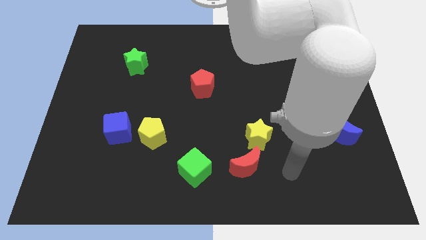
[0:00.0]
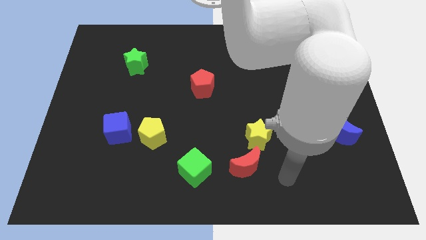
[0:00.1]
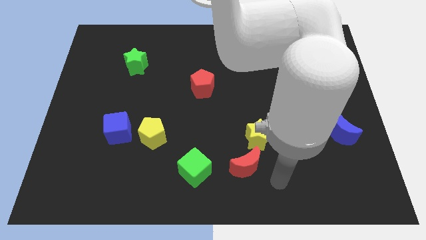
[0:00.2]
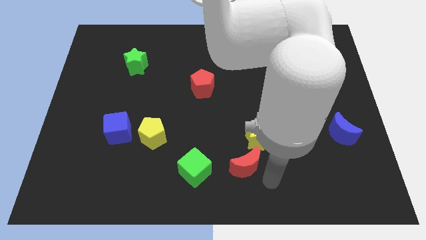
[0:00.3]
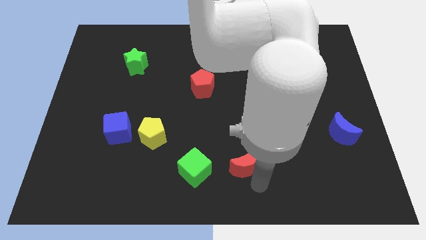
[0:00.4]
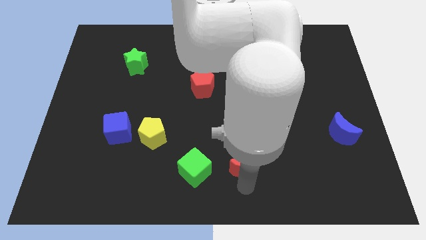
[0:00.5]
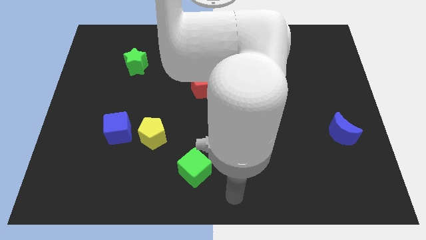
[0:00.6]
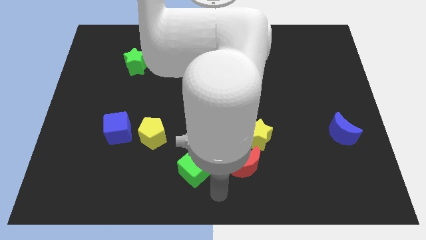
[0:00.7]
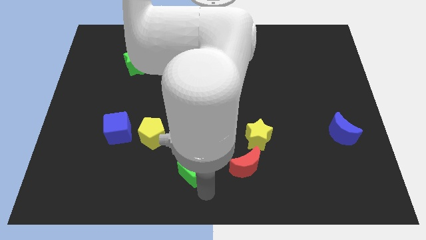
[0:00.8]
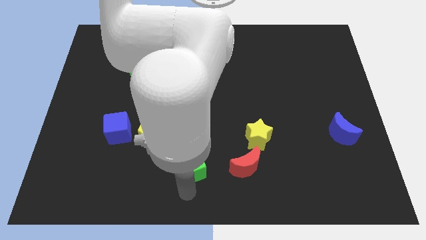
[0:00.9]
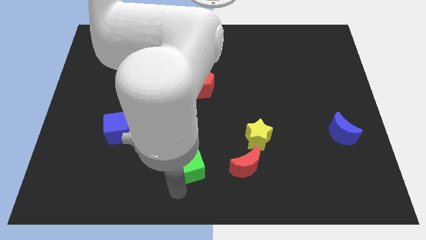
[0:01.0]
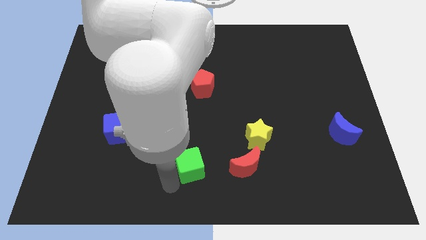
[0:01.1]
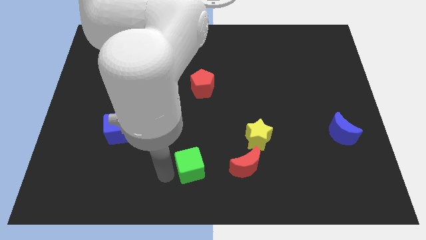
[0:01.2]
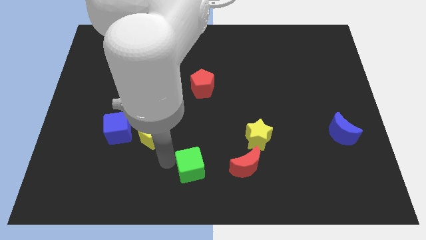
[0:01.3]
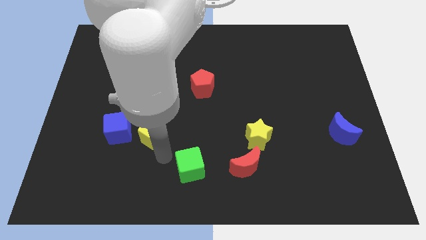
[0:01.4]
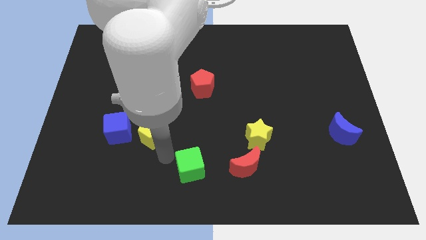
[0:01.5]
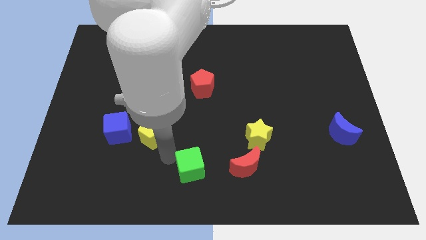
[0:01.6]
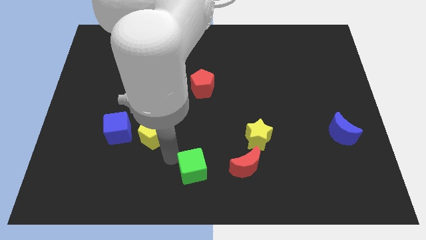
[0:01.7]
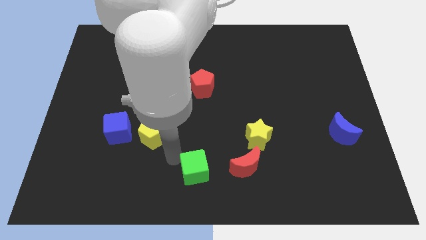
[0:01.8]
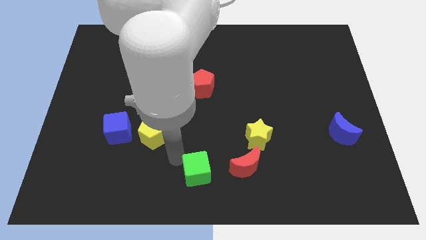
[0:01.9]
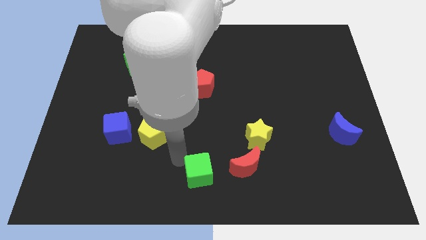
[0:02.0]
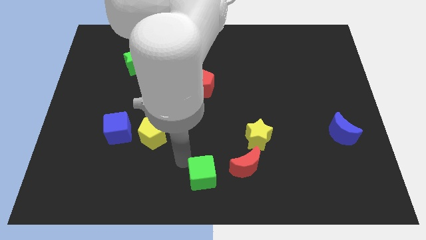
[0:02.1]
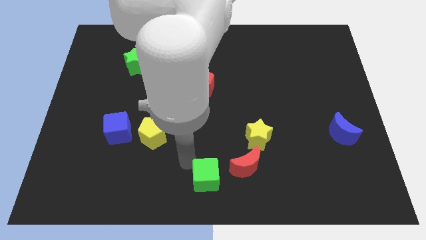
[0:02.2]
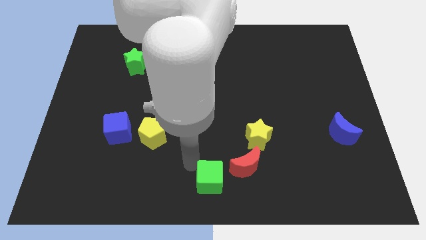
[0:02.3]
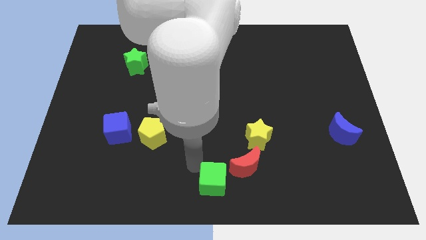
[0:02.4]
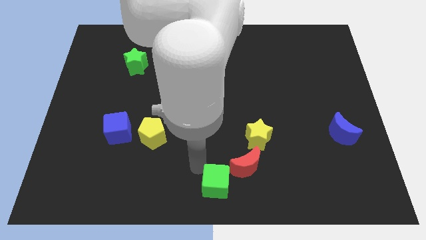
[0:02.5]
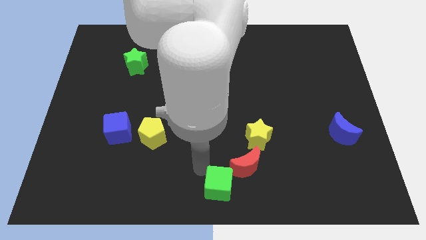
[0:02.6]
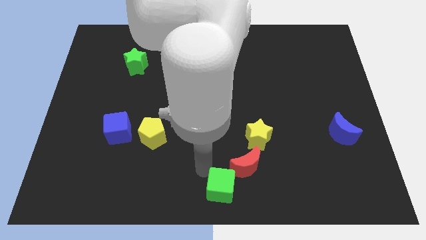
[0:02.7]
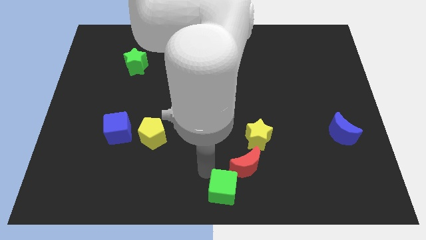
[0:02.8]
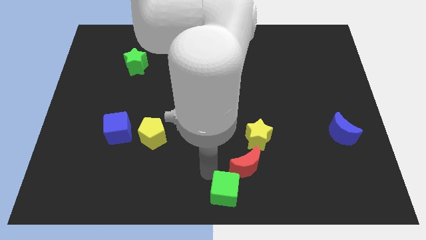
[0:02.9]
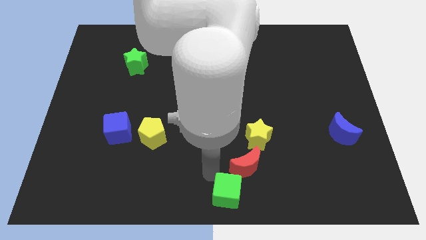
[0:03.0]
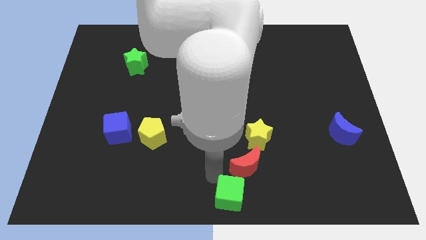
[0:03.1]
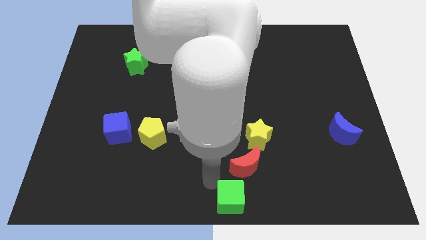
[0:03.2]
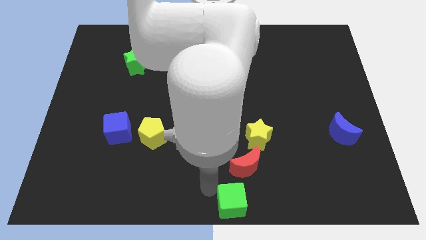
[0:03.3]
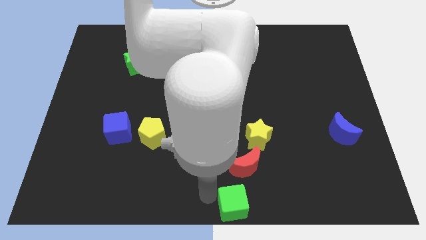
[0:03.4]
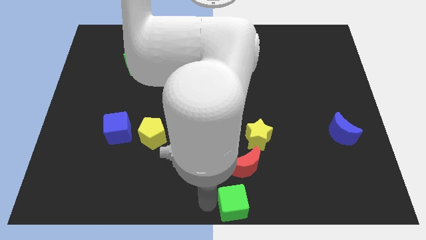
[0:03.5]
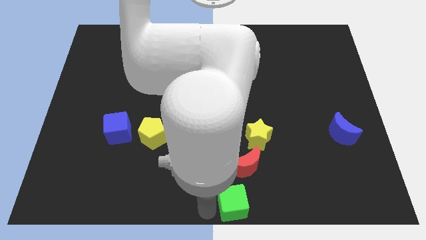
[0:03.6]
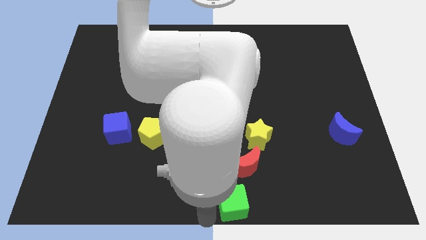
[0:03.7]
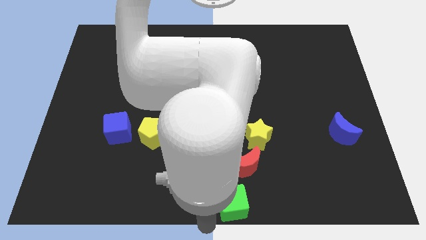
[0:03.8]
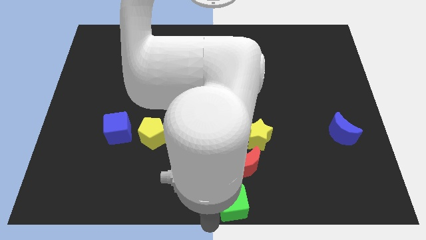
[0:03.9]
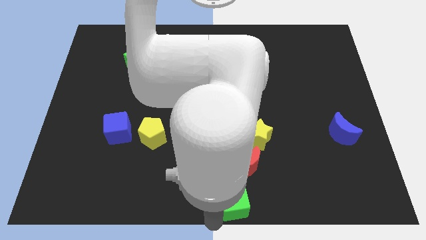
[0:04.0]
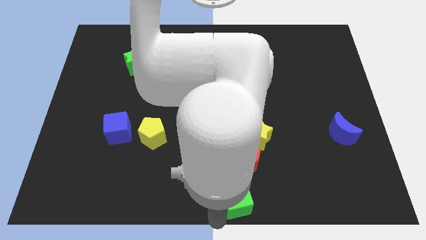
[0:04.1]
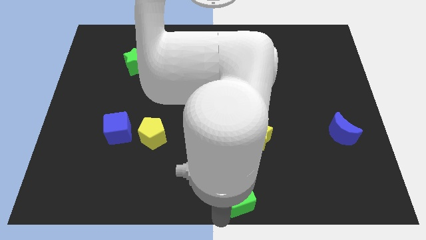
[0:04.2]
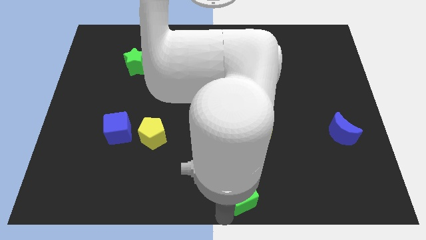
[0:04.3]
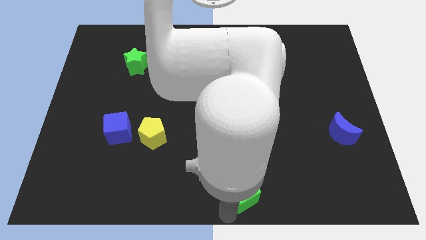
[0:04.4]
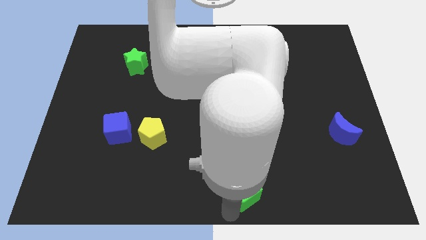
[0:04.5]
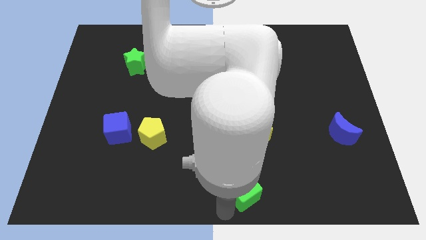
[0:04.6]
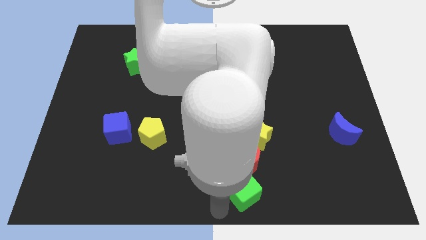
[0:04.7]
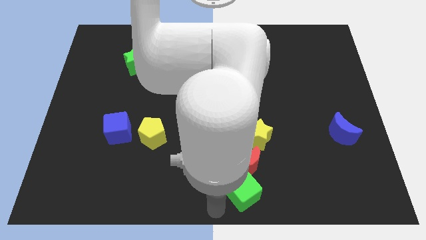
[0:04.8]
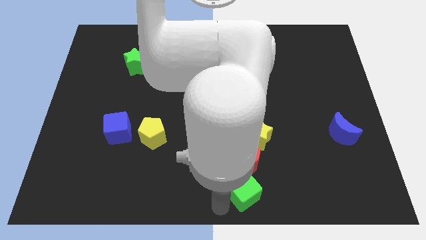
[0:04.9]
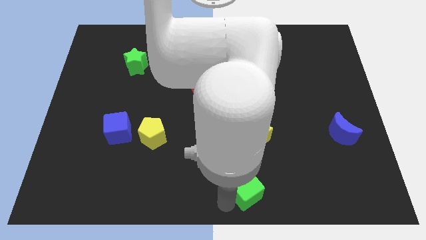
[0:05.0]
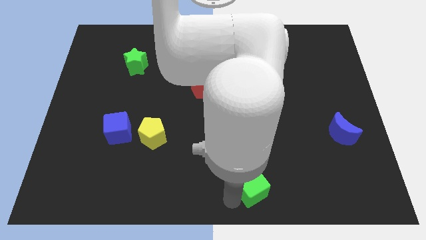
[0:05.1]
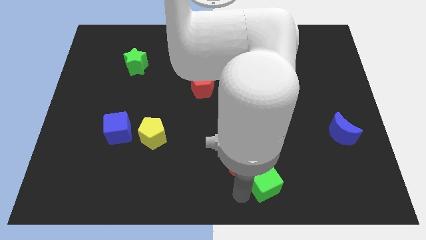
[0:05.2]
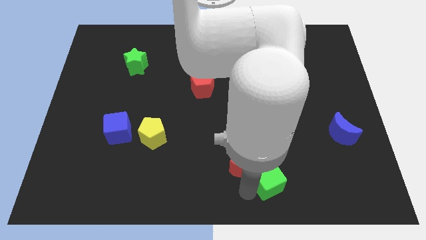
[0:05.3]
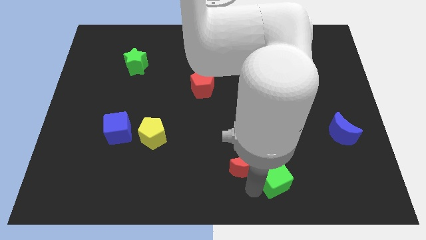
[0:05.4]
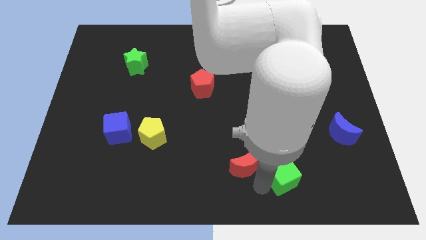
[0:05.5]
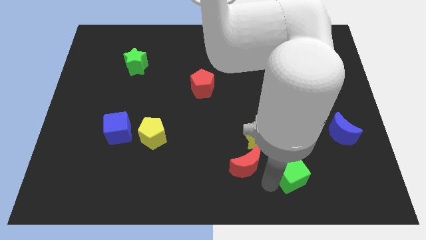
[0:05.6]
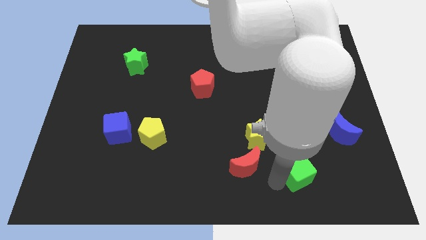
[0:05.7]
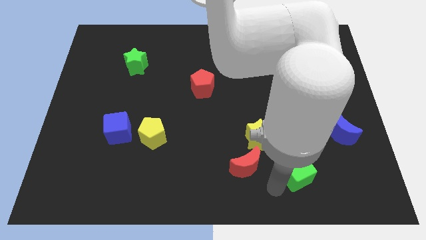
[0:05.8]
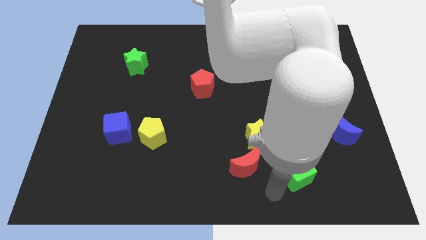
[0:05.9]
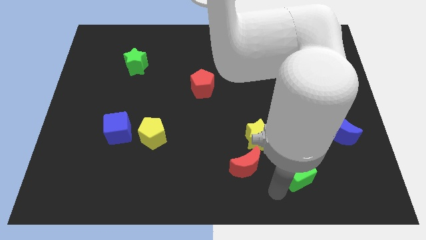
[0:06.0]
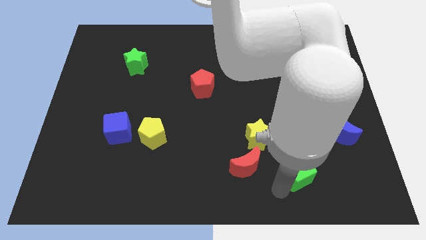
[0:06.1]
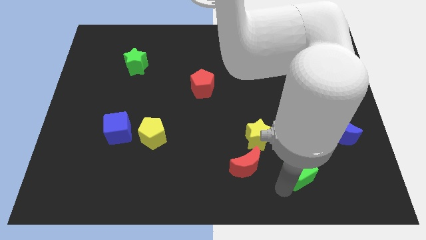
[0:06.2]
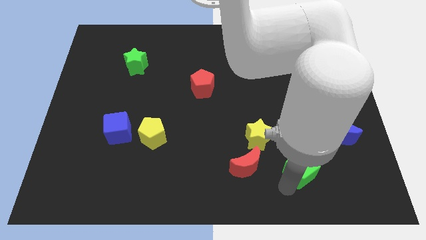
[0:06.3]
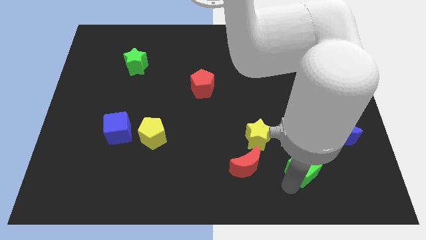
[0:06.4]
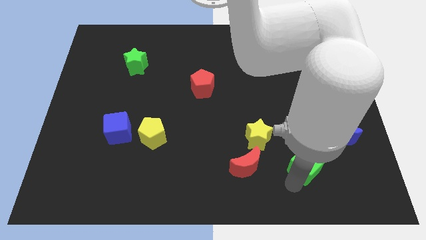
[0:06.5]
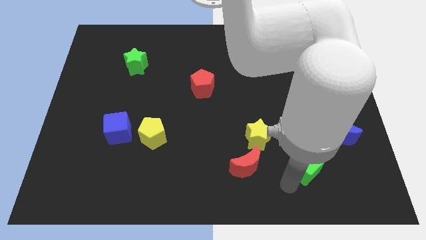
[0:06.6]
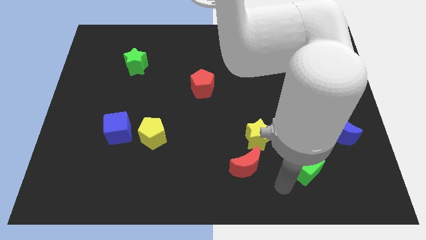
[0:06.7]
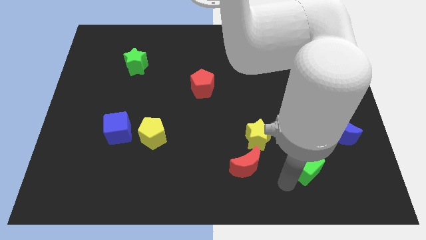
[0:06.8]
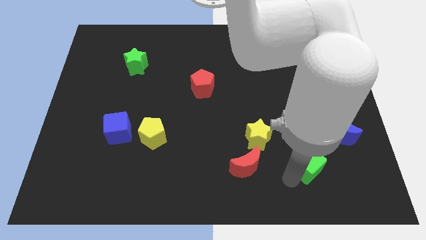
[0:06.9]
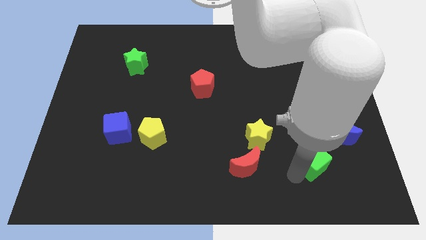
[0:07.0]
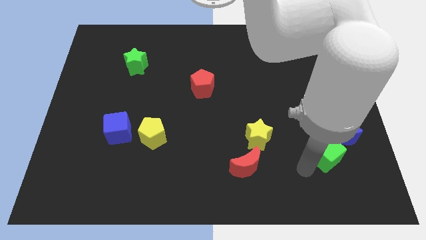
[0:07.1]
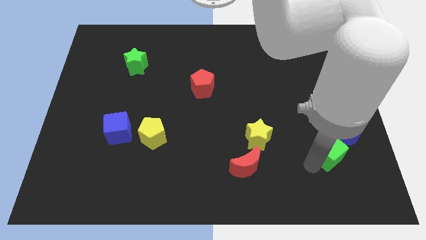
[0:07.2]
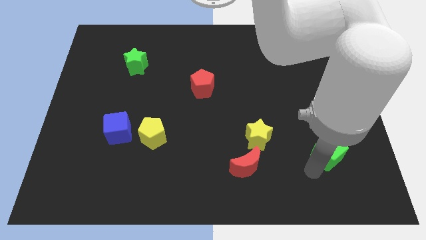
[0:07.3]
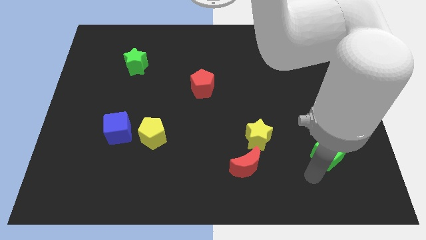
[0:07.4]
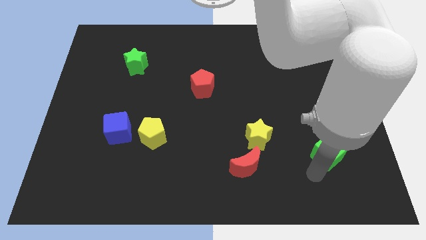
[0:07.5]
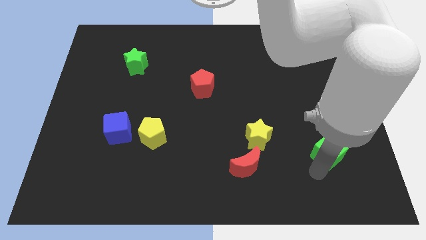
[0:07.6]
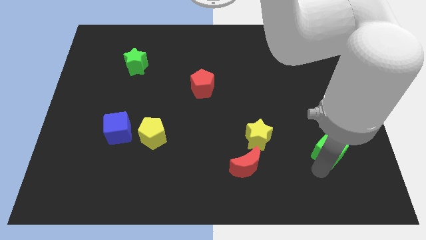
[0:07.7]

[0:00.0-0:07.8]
put the green cube next to the blue moon

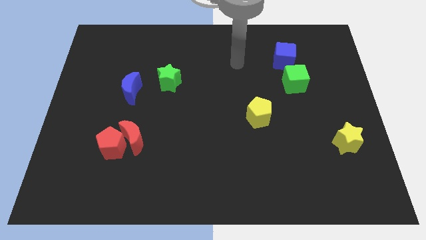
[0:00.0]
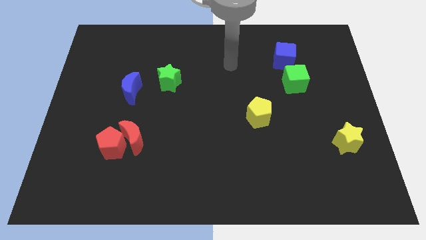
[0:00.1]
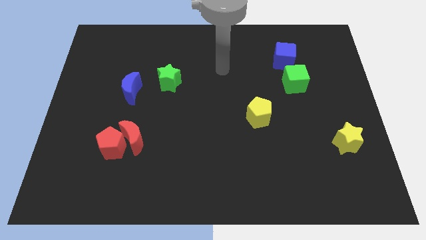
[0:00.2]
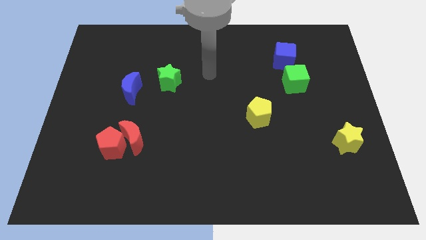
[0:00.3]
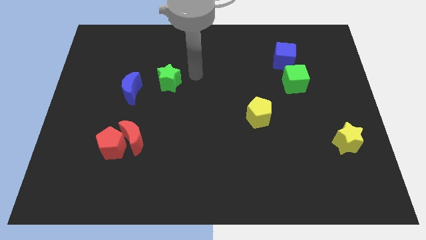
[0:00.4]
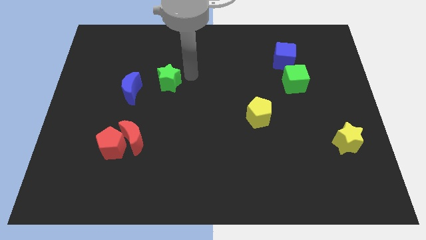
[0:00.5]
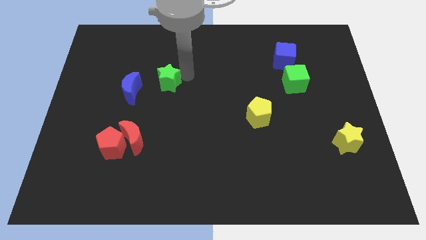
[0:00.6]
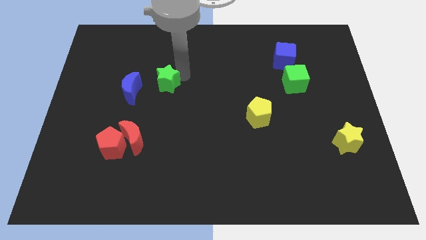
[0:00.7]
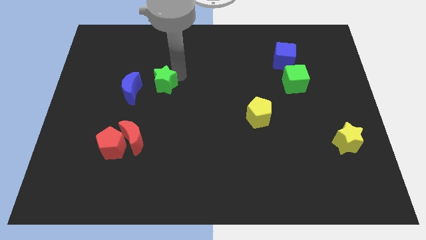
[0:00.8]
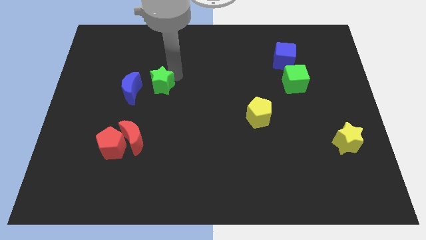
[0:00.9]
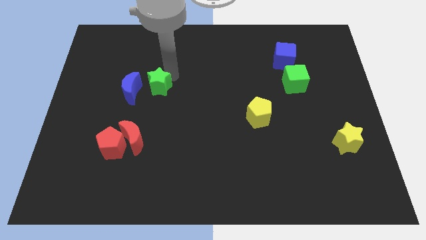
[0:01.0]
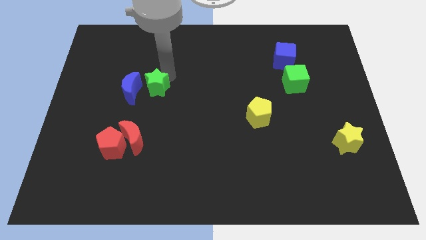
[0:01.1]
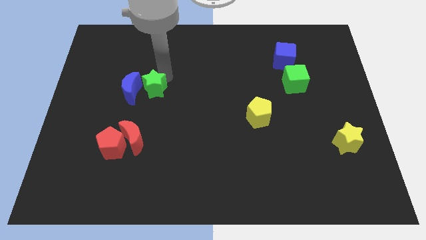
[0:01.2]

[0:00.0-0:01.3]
put the green star to the blue moon
